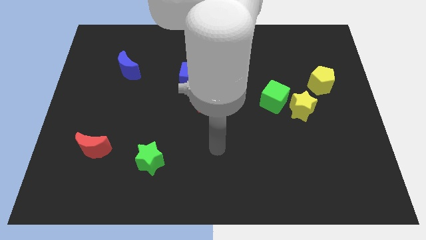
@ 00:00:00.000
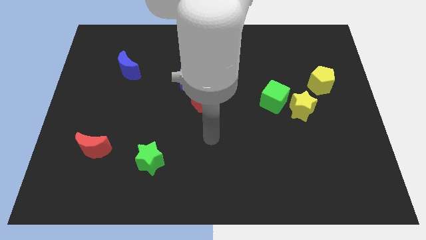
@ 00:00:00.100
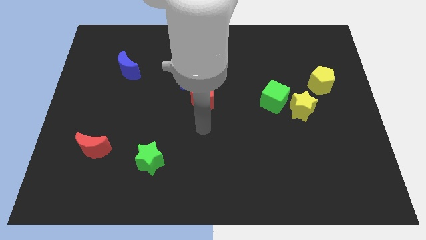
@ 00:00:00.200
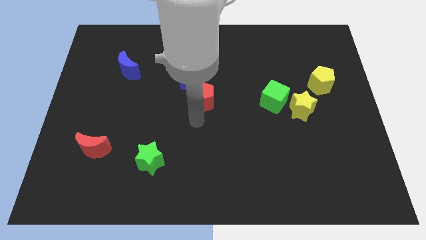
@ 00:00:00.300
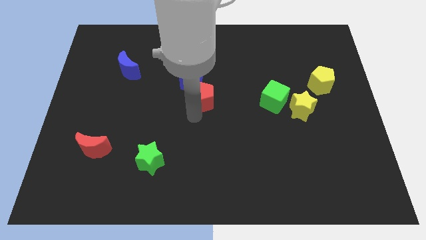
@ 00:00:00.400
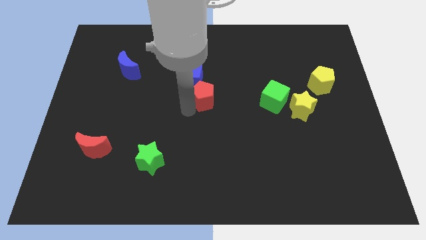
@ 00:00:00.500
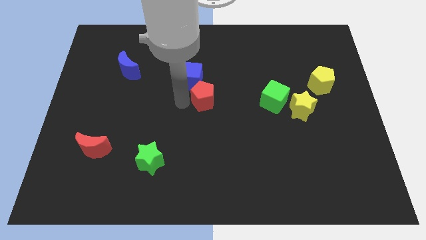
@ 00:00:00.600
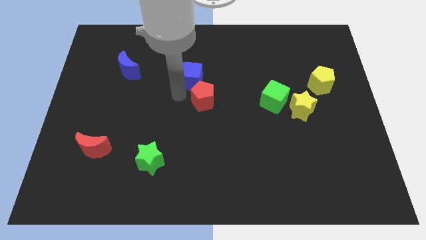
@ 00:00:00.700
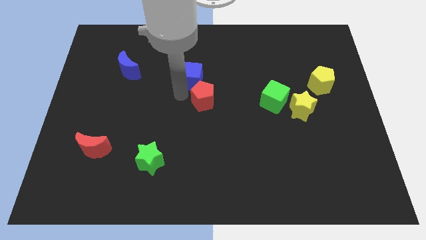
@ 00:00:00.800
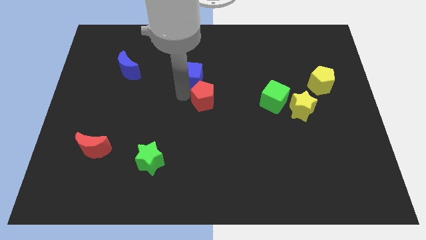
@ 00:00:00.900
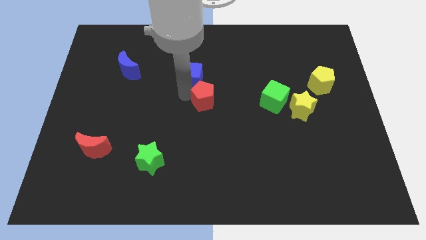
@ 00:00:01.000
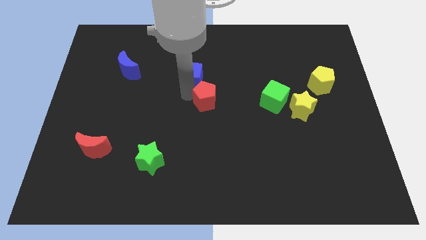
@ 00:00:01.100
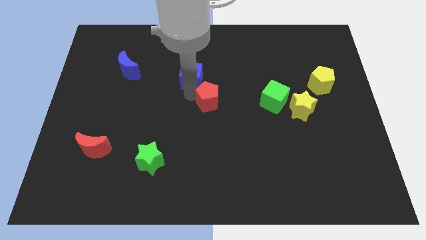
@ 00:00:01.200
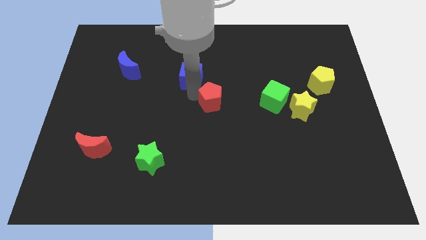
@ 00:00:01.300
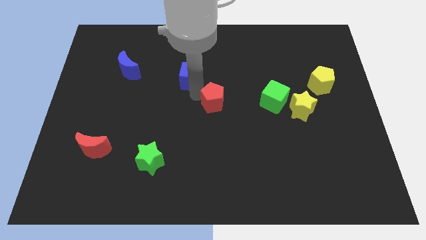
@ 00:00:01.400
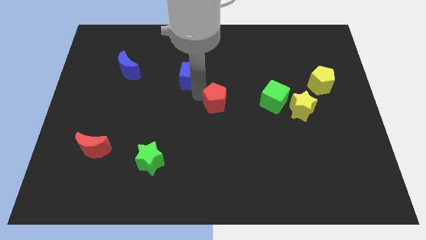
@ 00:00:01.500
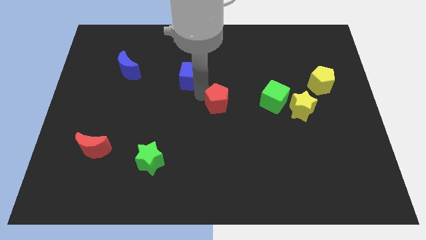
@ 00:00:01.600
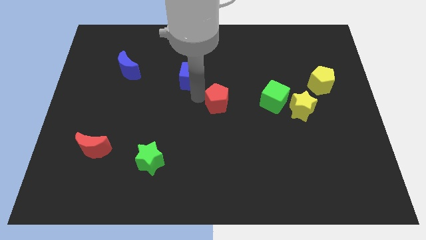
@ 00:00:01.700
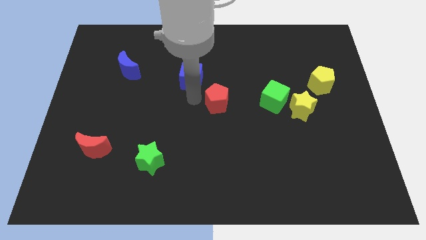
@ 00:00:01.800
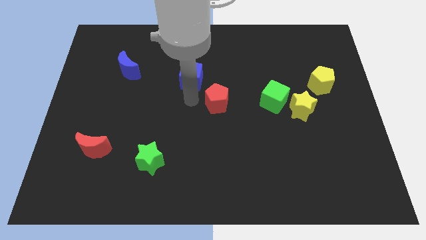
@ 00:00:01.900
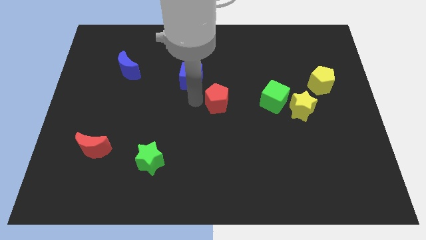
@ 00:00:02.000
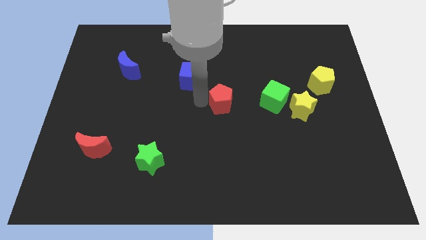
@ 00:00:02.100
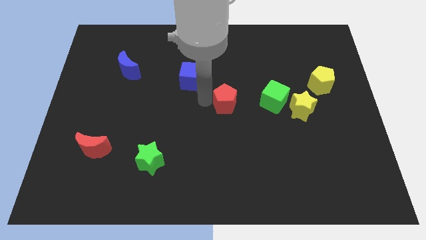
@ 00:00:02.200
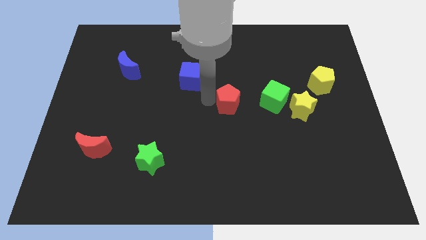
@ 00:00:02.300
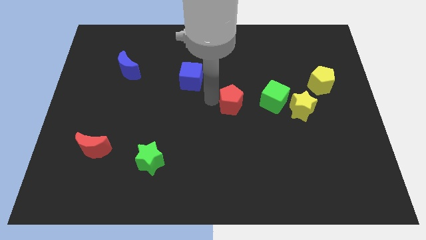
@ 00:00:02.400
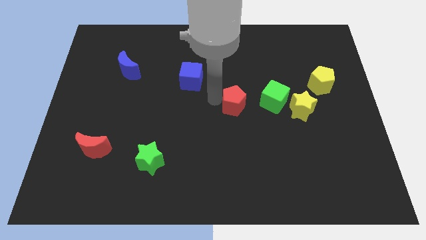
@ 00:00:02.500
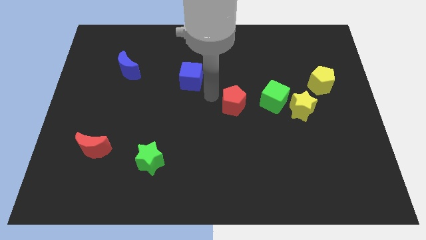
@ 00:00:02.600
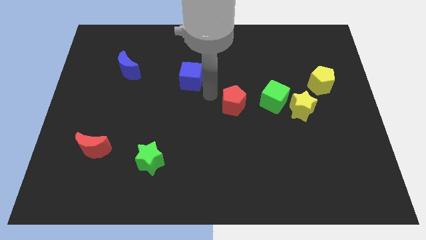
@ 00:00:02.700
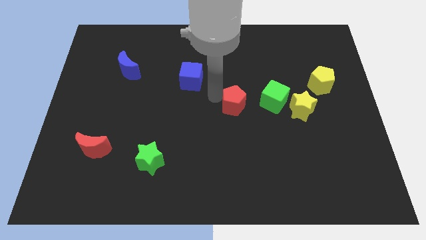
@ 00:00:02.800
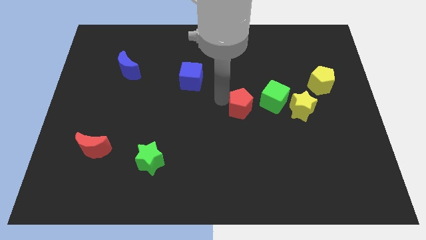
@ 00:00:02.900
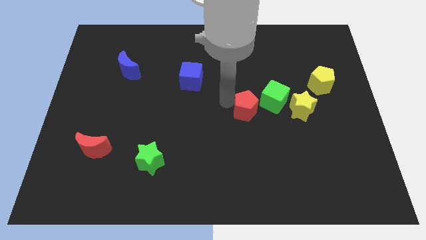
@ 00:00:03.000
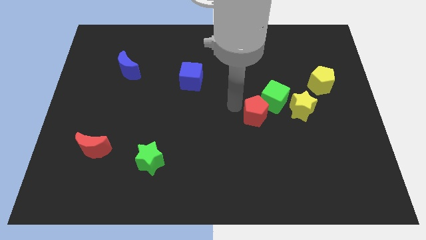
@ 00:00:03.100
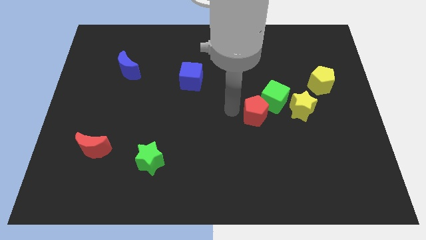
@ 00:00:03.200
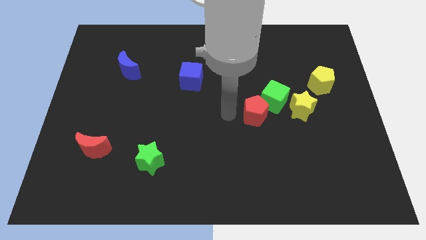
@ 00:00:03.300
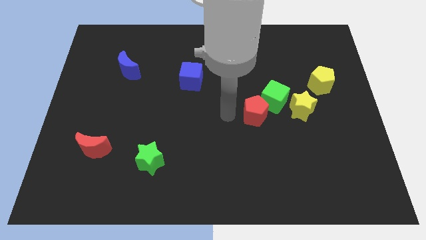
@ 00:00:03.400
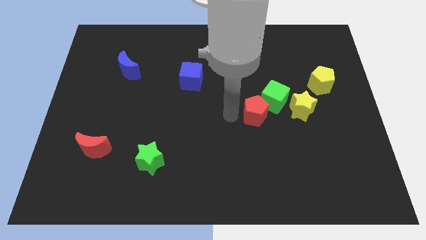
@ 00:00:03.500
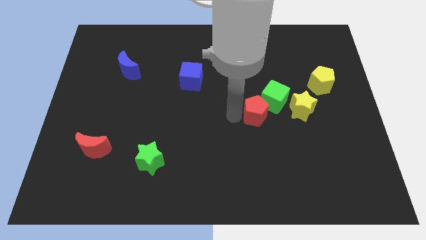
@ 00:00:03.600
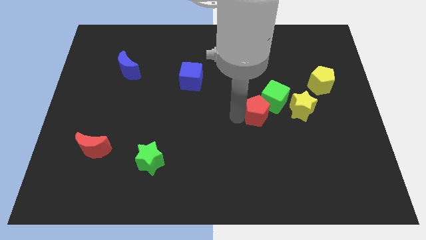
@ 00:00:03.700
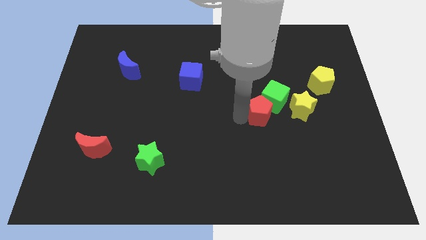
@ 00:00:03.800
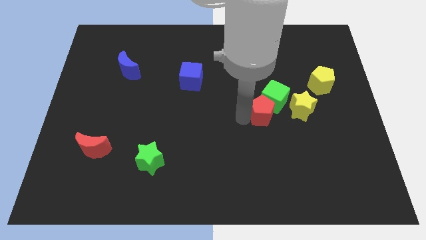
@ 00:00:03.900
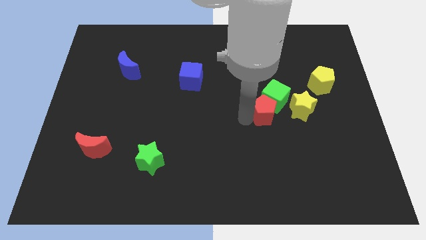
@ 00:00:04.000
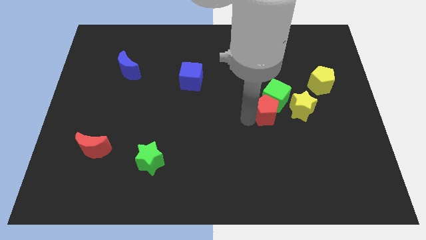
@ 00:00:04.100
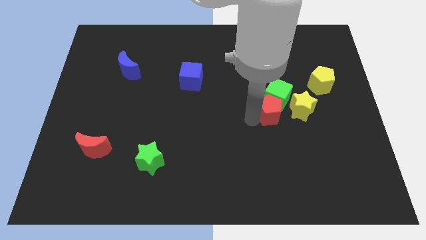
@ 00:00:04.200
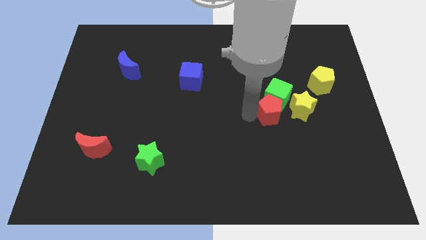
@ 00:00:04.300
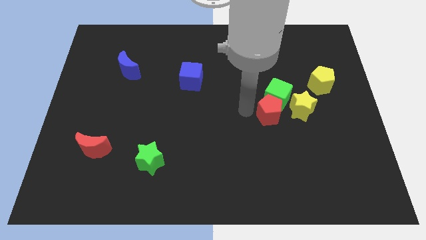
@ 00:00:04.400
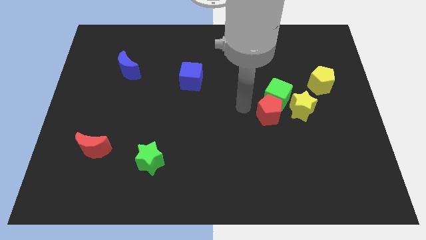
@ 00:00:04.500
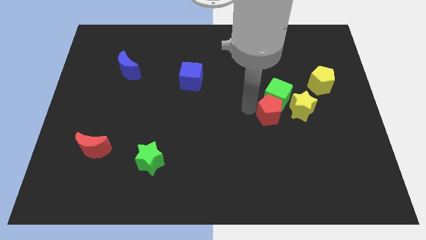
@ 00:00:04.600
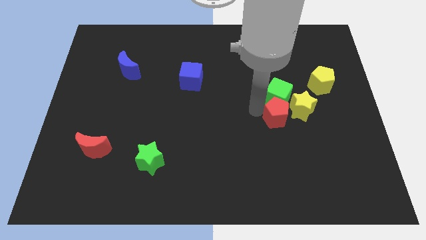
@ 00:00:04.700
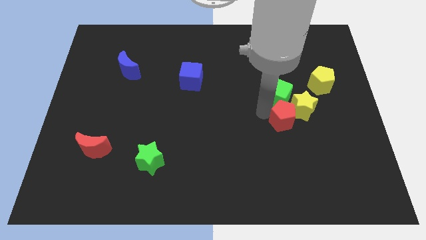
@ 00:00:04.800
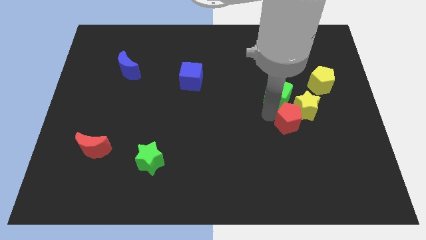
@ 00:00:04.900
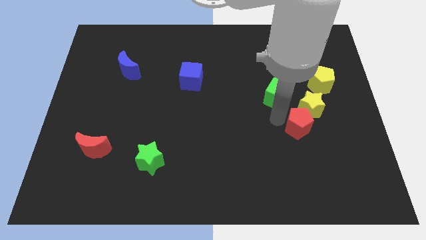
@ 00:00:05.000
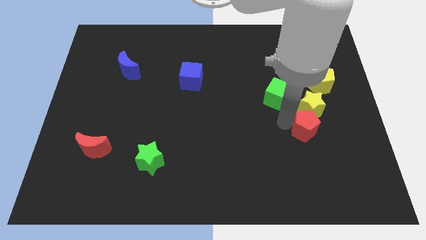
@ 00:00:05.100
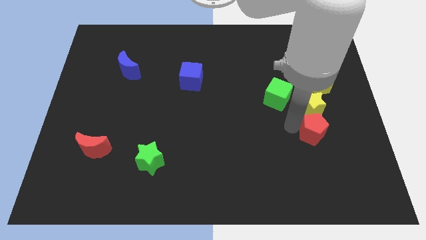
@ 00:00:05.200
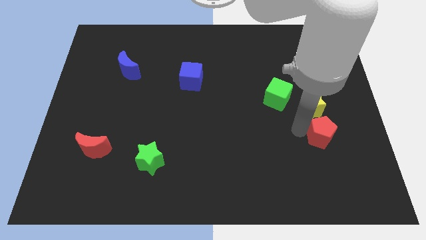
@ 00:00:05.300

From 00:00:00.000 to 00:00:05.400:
move the red pentagon below the yellow pentagon

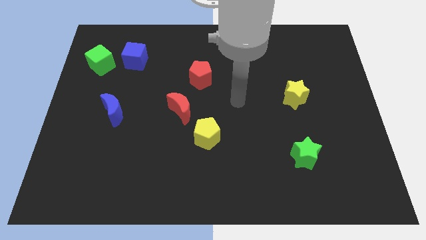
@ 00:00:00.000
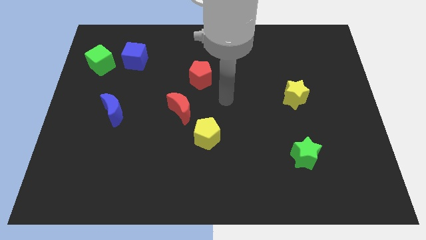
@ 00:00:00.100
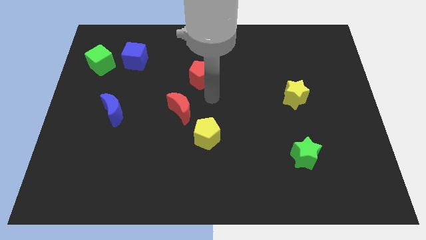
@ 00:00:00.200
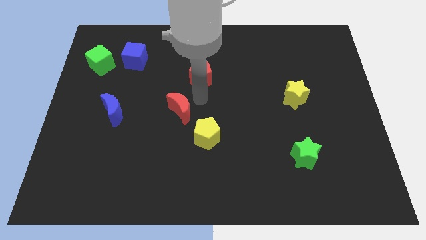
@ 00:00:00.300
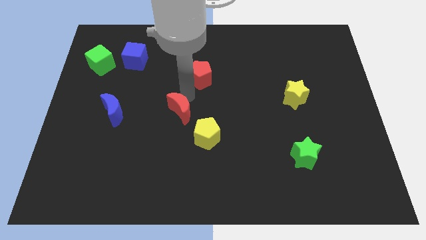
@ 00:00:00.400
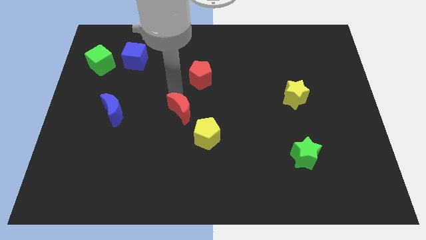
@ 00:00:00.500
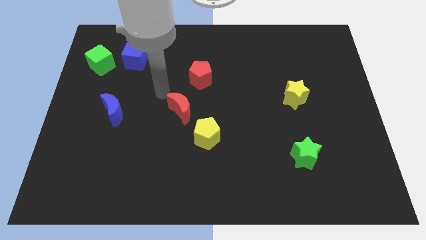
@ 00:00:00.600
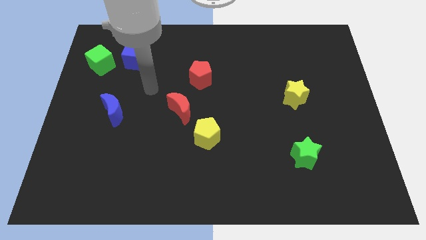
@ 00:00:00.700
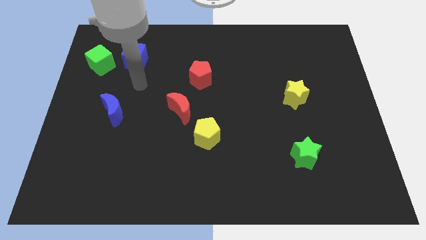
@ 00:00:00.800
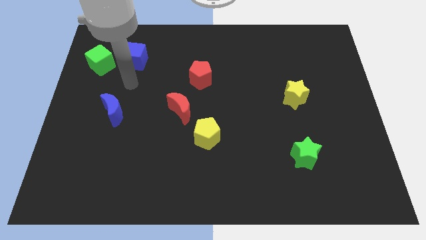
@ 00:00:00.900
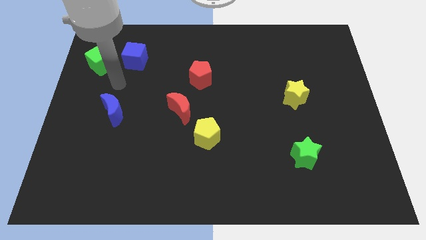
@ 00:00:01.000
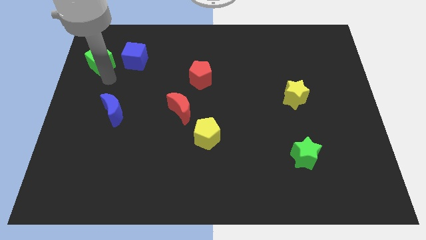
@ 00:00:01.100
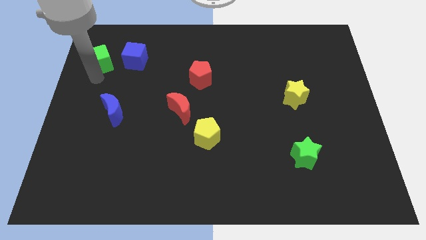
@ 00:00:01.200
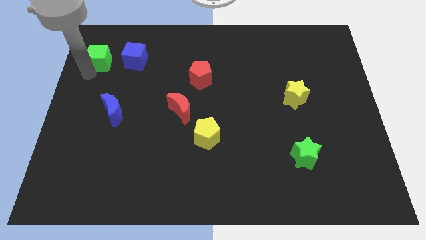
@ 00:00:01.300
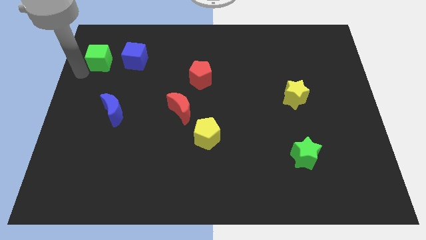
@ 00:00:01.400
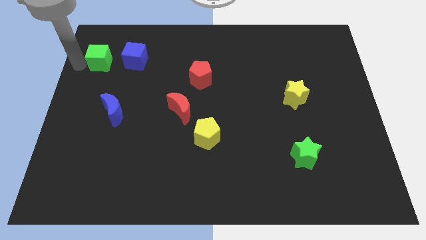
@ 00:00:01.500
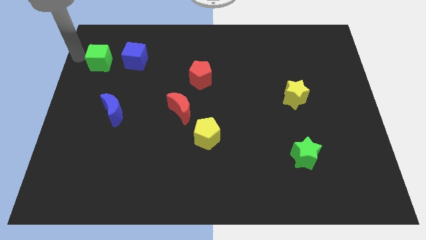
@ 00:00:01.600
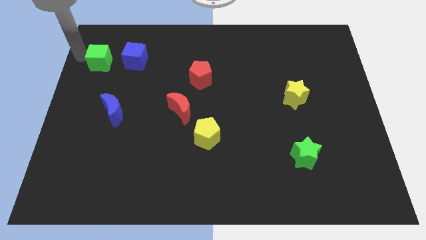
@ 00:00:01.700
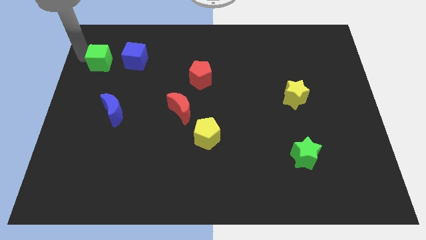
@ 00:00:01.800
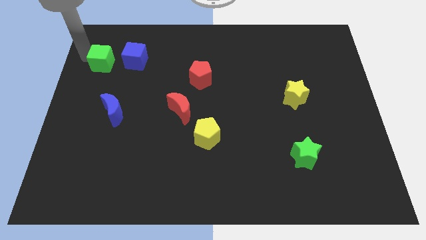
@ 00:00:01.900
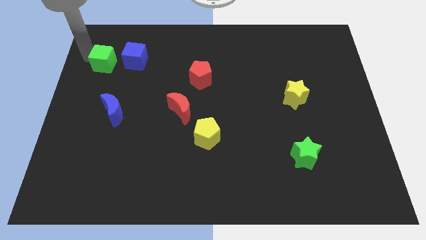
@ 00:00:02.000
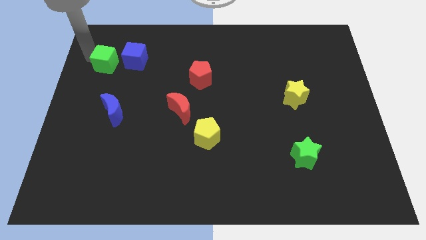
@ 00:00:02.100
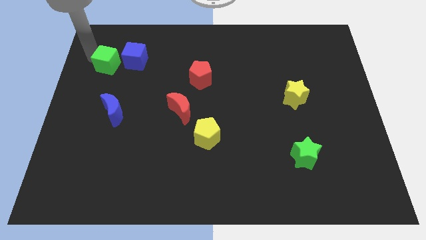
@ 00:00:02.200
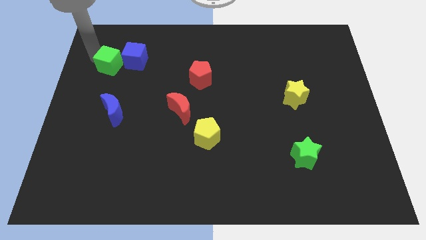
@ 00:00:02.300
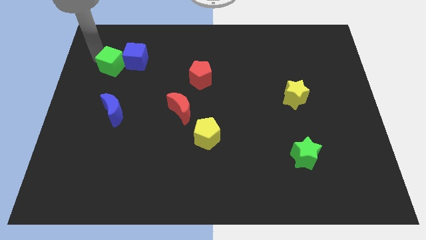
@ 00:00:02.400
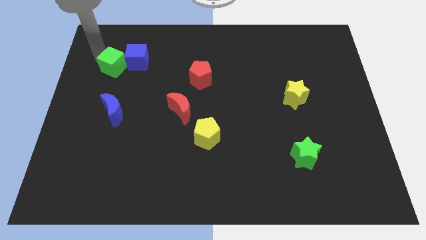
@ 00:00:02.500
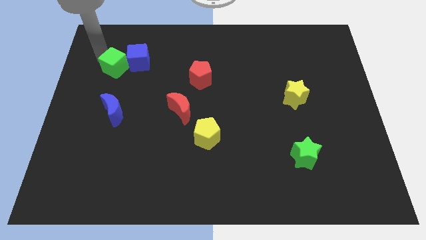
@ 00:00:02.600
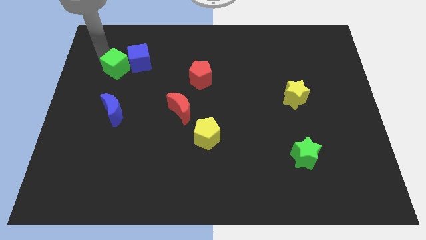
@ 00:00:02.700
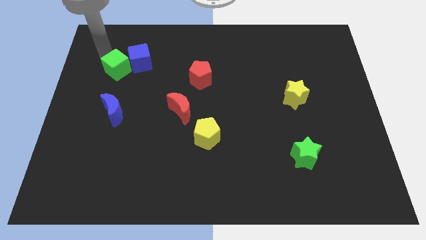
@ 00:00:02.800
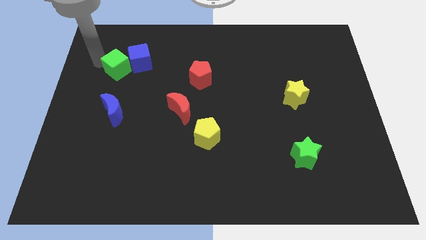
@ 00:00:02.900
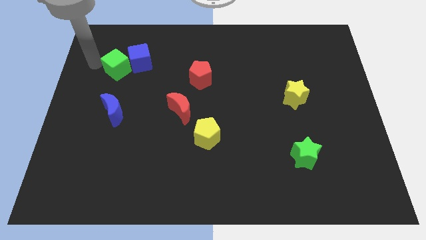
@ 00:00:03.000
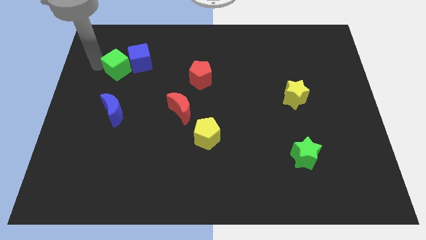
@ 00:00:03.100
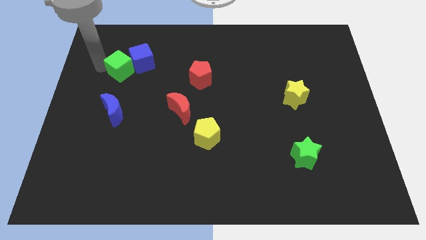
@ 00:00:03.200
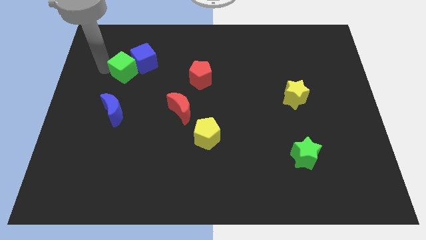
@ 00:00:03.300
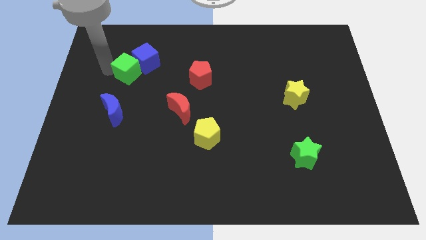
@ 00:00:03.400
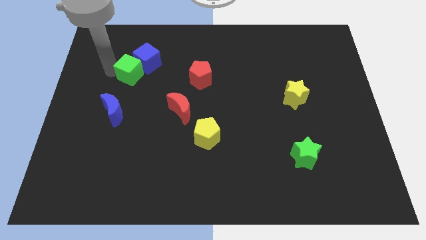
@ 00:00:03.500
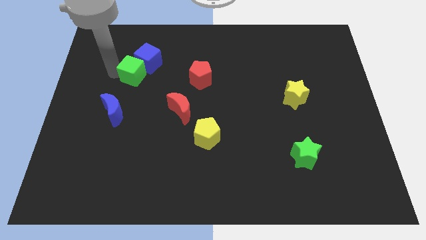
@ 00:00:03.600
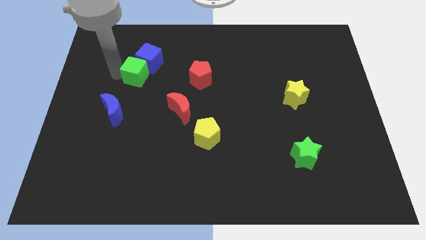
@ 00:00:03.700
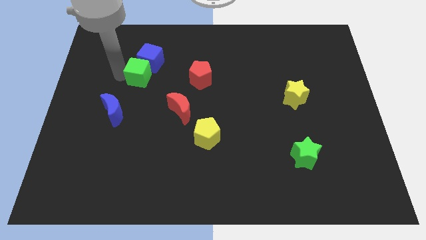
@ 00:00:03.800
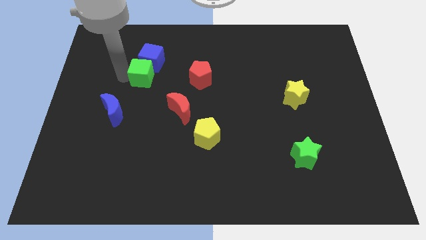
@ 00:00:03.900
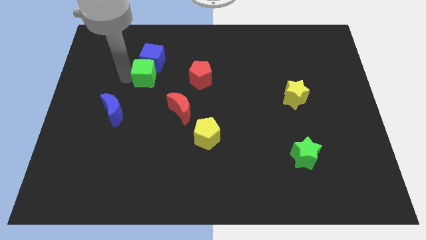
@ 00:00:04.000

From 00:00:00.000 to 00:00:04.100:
move the green cube diagonally down and to the right of the blue cube
